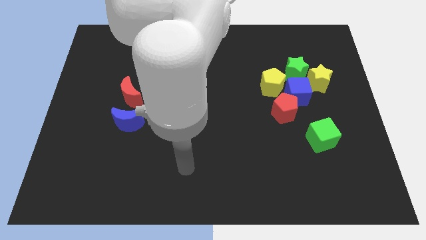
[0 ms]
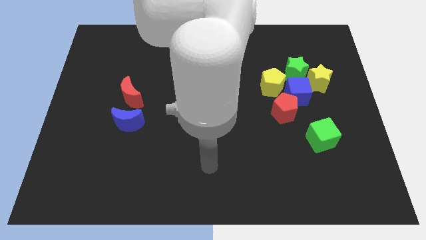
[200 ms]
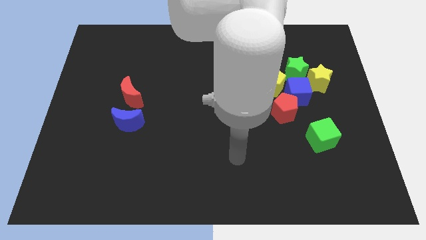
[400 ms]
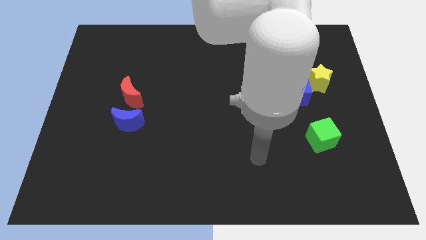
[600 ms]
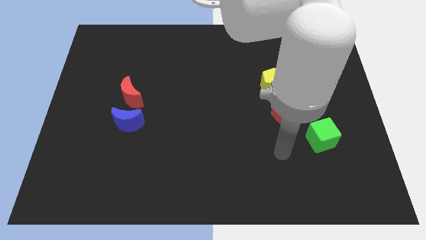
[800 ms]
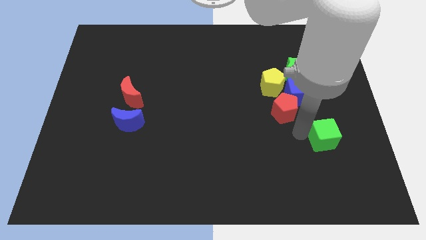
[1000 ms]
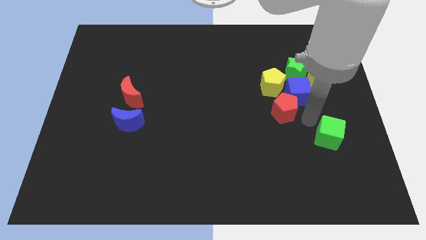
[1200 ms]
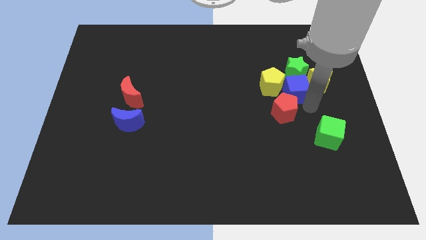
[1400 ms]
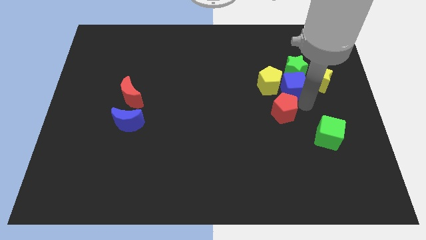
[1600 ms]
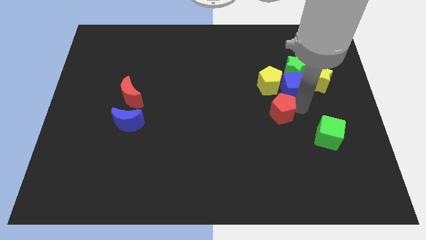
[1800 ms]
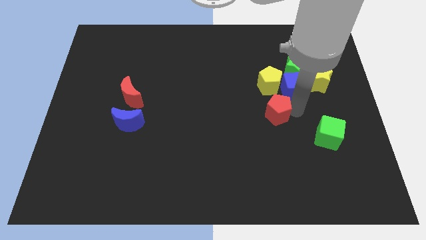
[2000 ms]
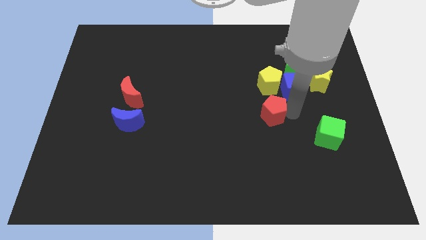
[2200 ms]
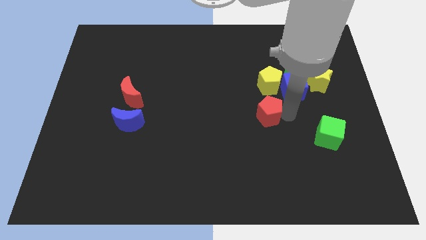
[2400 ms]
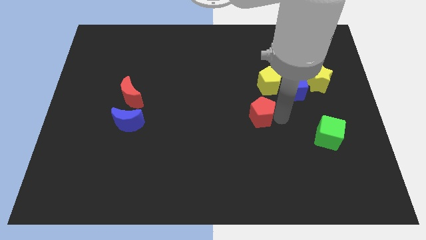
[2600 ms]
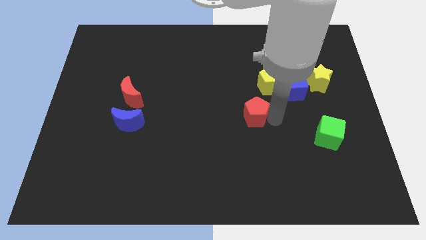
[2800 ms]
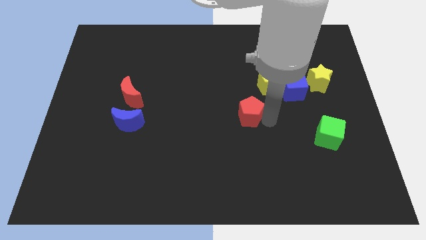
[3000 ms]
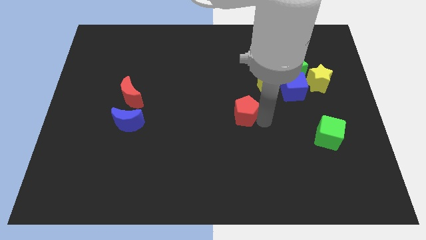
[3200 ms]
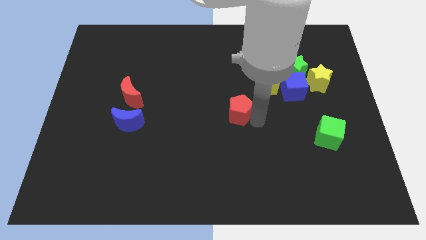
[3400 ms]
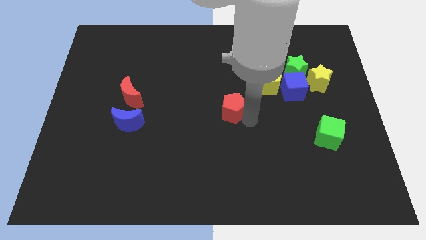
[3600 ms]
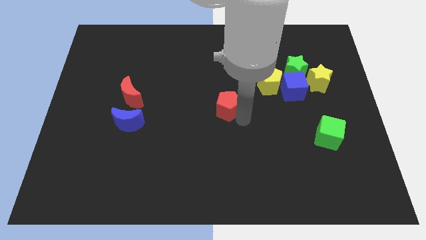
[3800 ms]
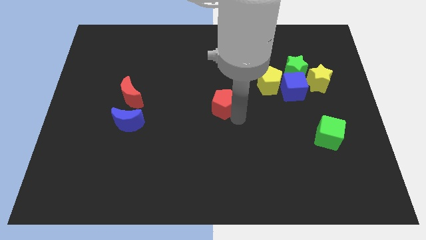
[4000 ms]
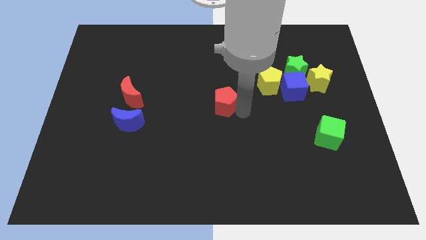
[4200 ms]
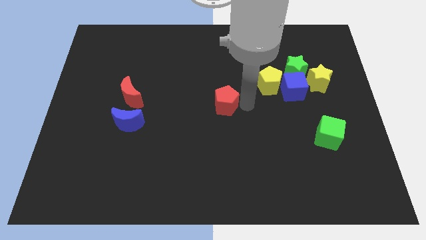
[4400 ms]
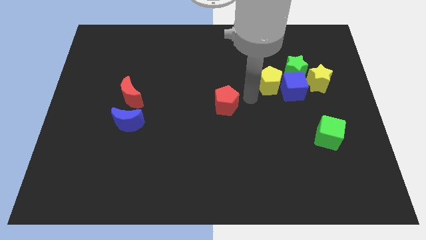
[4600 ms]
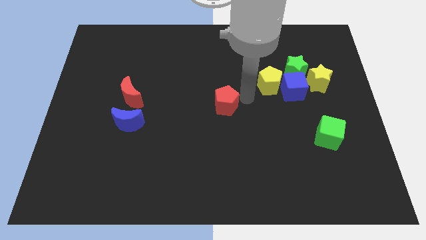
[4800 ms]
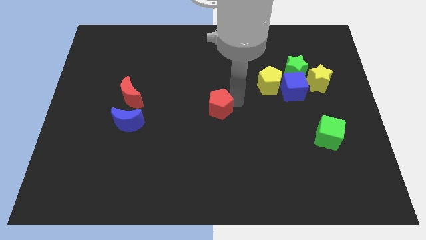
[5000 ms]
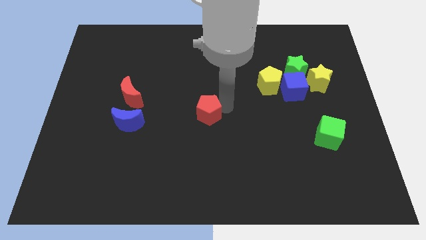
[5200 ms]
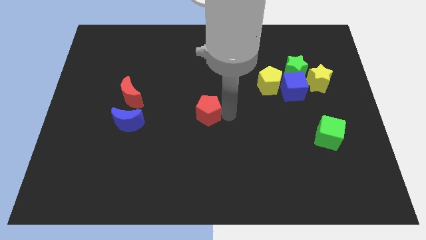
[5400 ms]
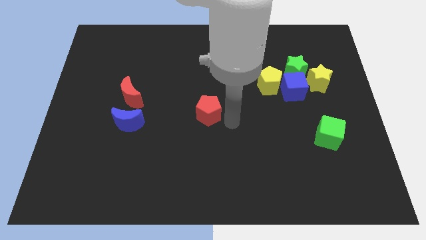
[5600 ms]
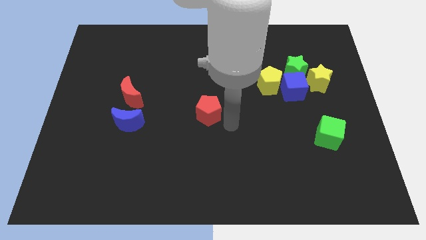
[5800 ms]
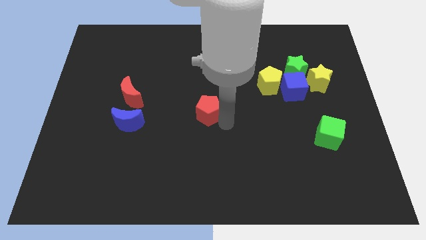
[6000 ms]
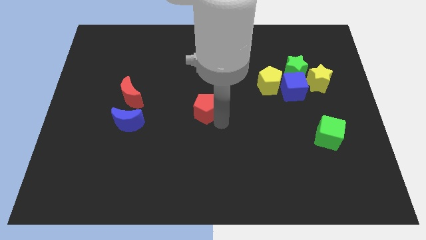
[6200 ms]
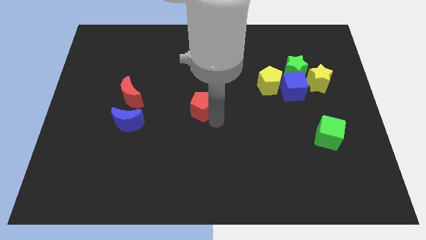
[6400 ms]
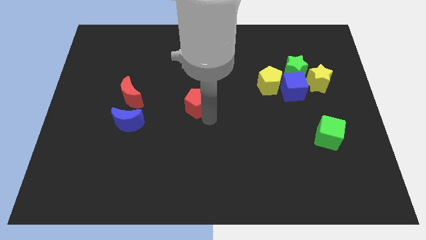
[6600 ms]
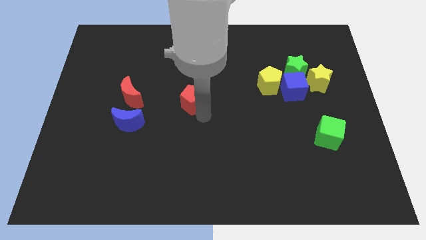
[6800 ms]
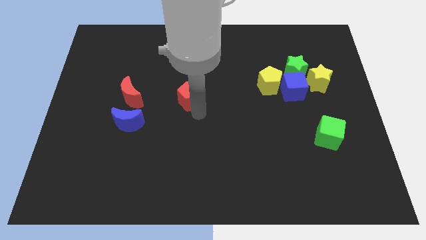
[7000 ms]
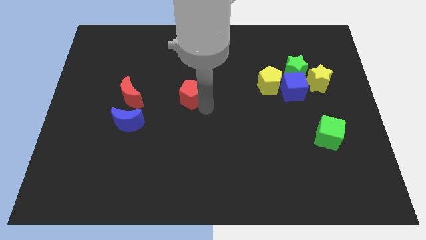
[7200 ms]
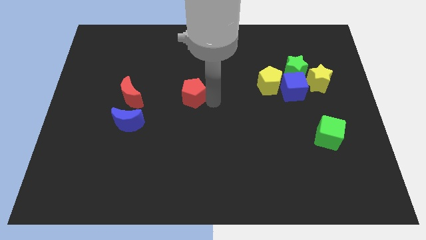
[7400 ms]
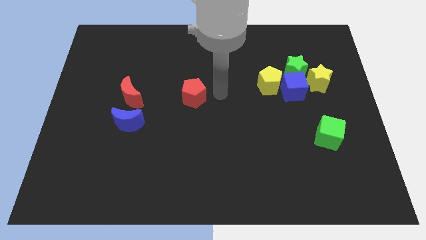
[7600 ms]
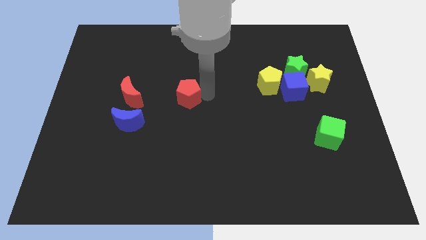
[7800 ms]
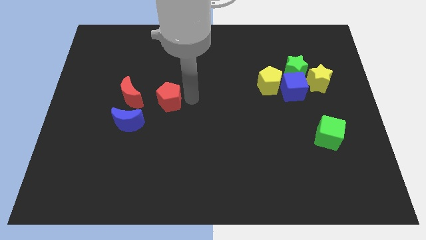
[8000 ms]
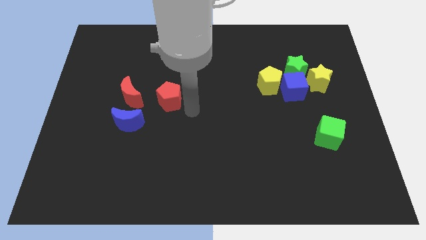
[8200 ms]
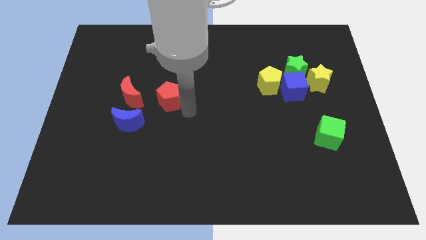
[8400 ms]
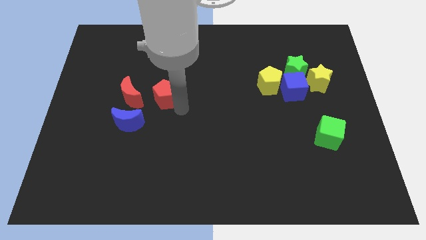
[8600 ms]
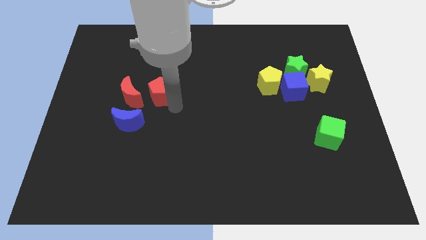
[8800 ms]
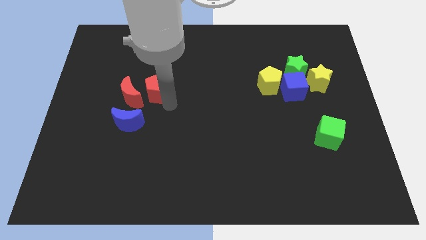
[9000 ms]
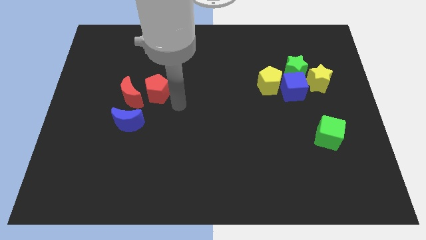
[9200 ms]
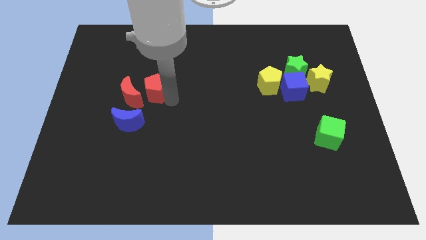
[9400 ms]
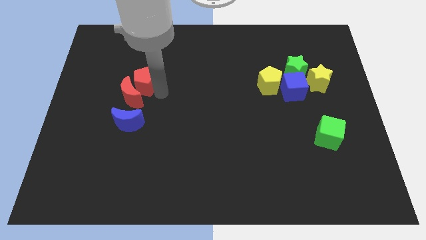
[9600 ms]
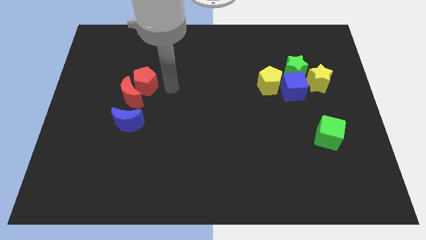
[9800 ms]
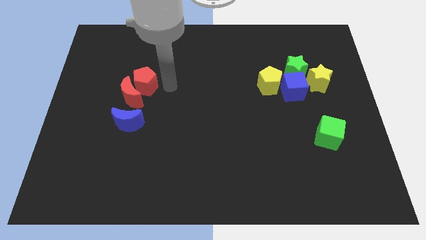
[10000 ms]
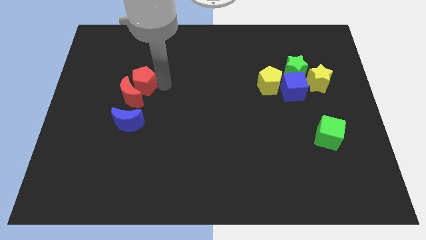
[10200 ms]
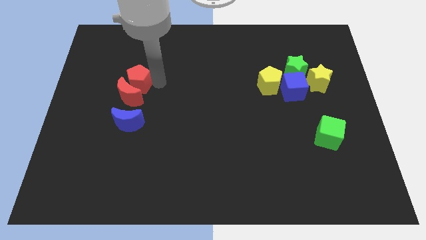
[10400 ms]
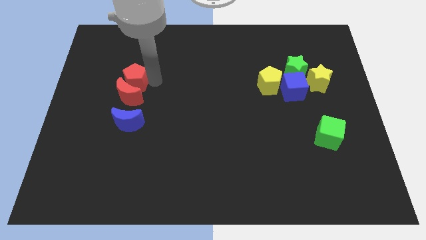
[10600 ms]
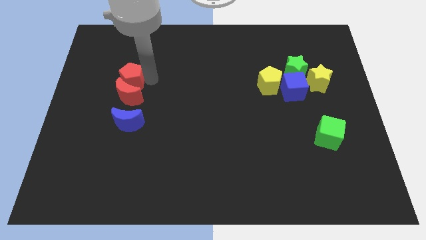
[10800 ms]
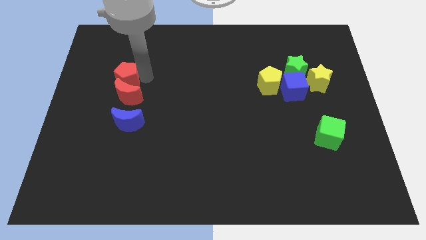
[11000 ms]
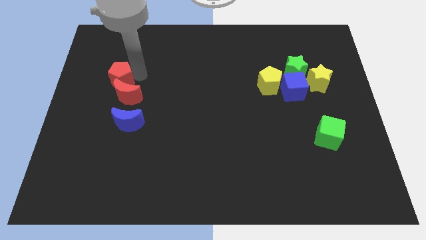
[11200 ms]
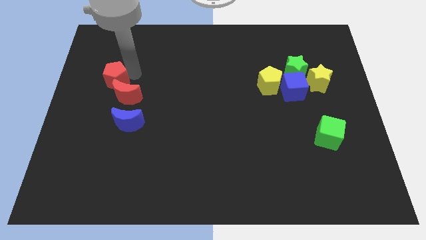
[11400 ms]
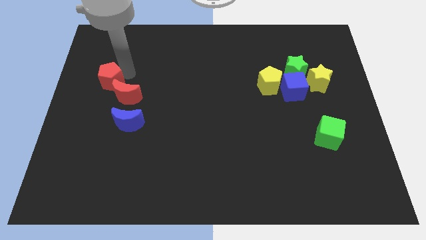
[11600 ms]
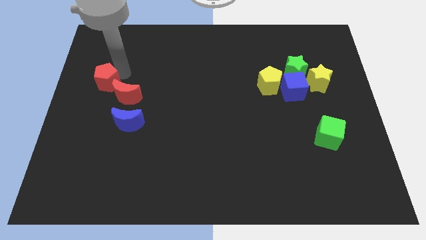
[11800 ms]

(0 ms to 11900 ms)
move the red pentagon to the left side of the board

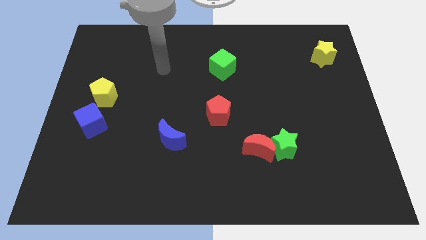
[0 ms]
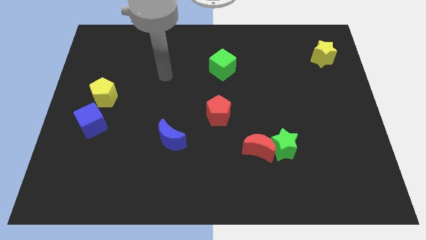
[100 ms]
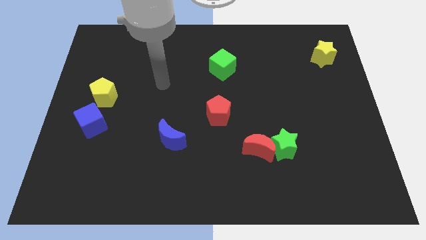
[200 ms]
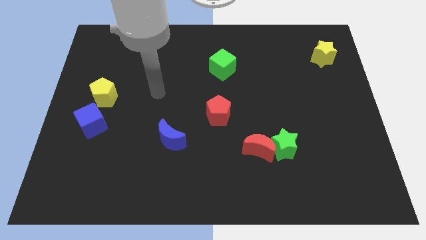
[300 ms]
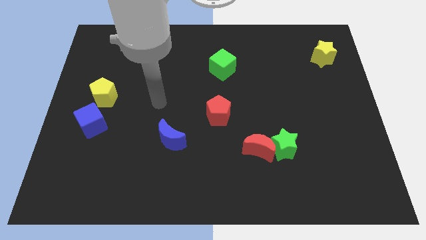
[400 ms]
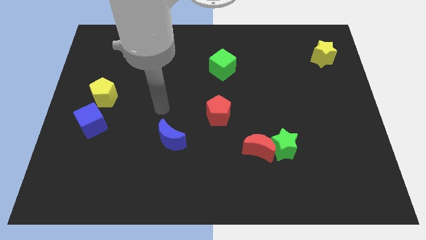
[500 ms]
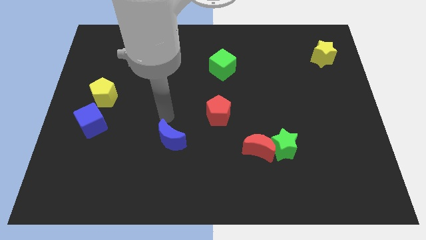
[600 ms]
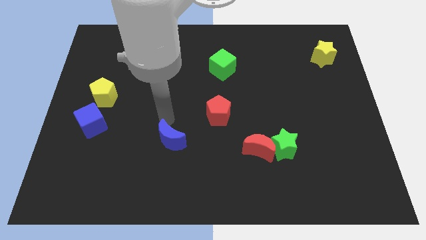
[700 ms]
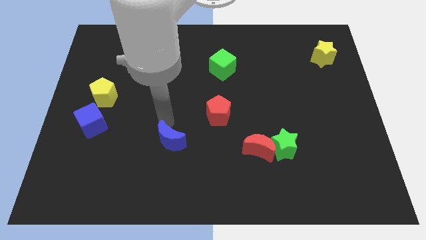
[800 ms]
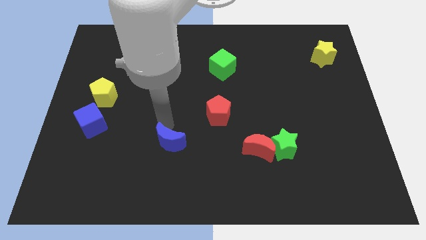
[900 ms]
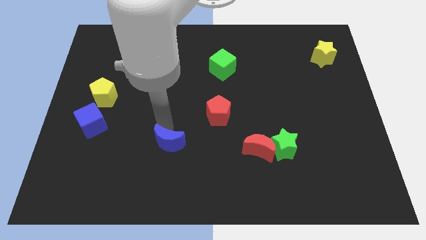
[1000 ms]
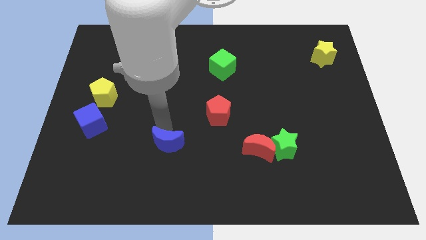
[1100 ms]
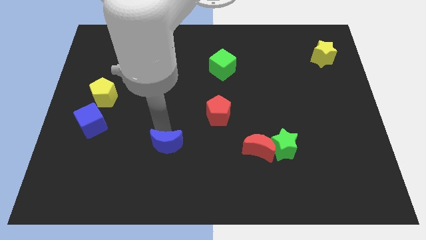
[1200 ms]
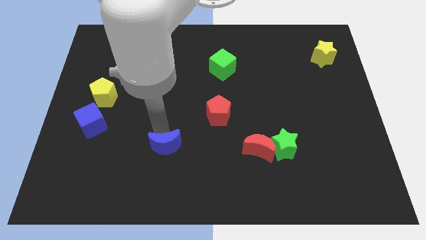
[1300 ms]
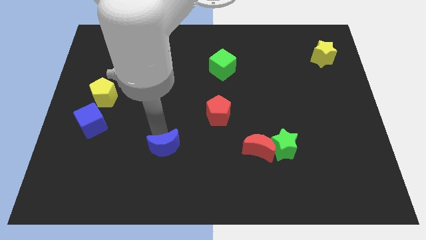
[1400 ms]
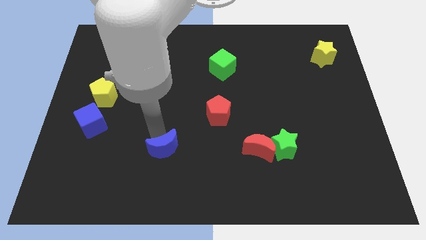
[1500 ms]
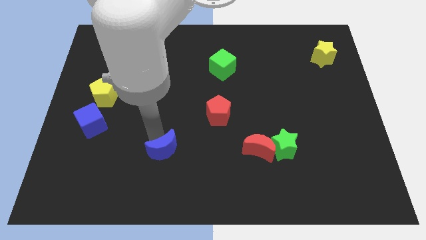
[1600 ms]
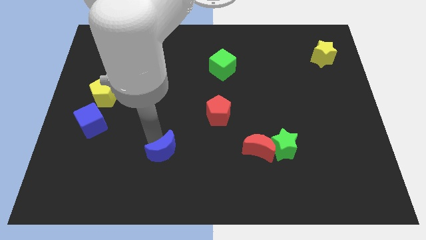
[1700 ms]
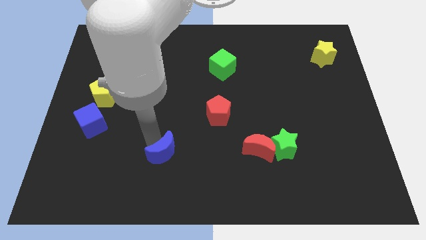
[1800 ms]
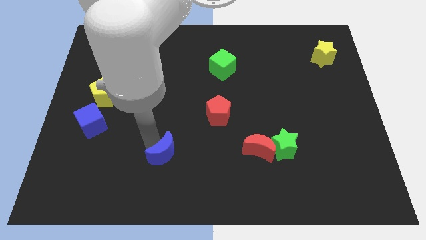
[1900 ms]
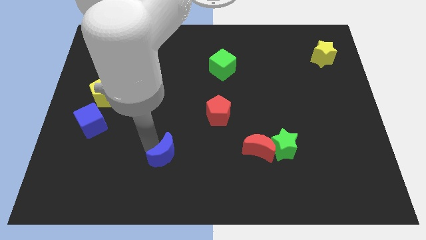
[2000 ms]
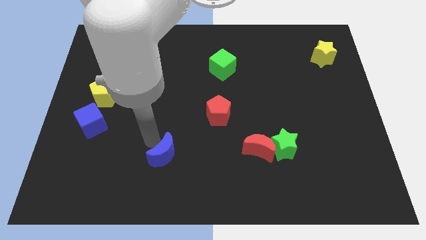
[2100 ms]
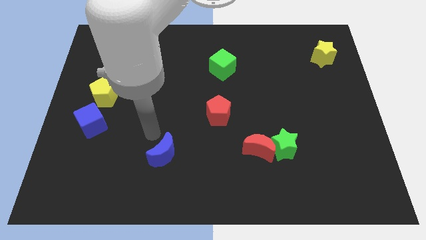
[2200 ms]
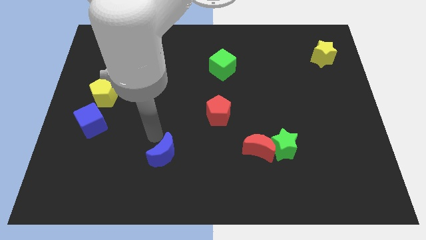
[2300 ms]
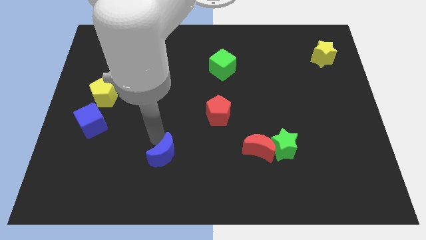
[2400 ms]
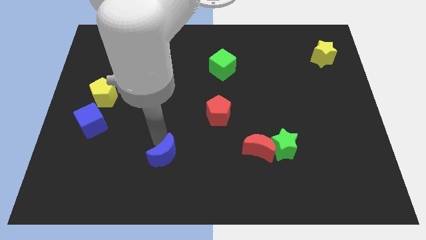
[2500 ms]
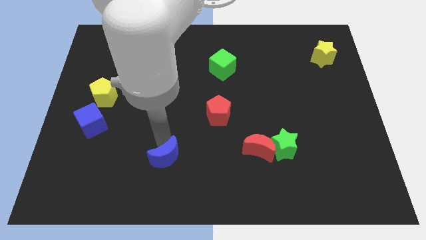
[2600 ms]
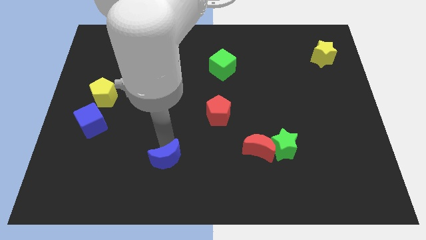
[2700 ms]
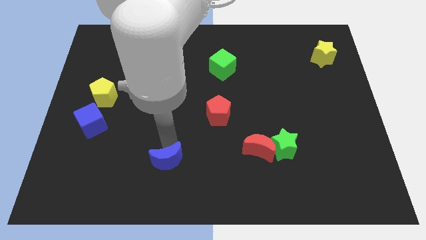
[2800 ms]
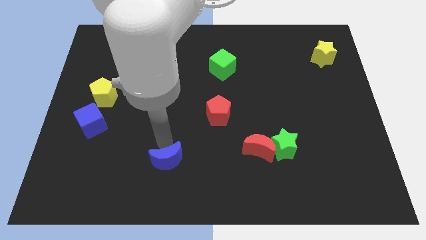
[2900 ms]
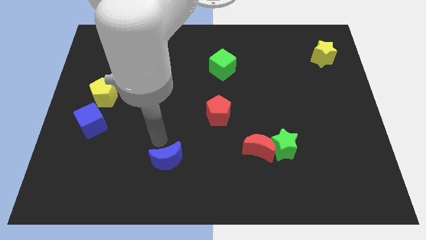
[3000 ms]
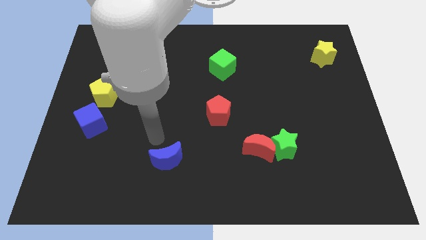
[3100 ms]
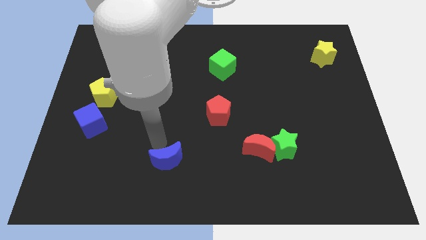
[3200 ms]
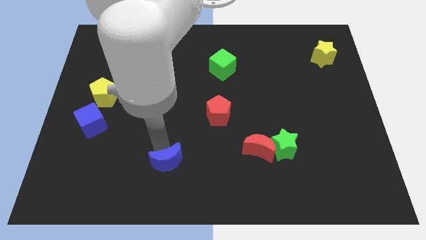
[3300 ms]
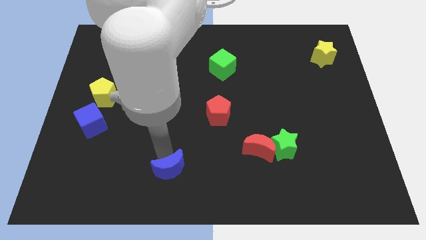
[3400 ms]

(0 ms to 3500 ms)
slide the blue moon to the bottom side
